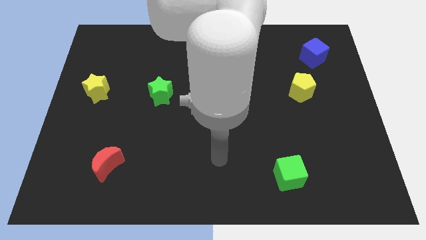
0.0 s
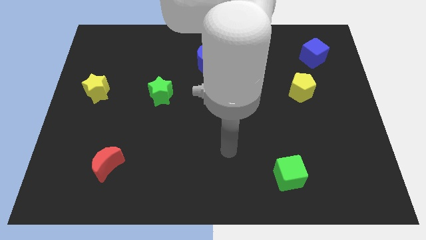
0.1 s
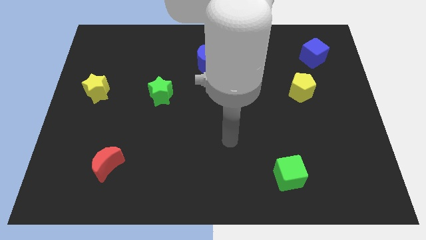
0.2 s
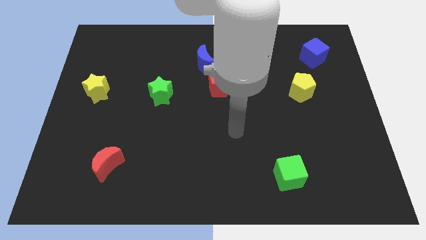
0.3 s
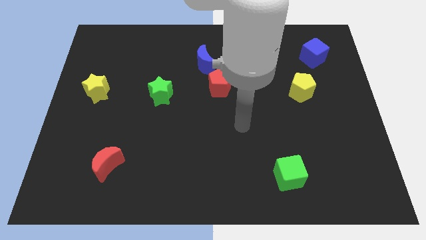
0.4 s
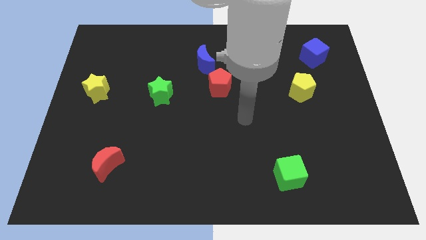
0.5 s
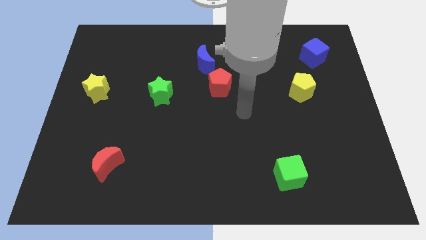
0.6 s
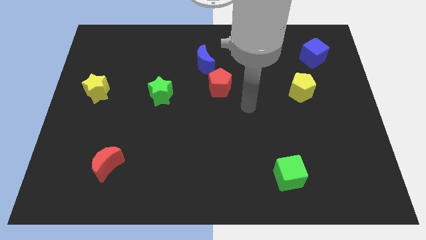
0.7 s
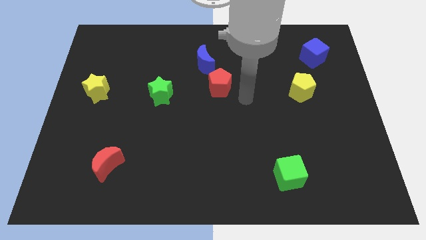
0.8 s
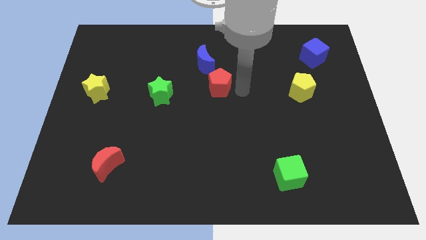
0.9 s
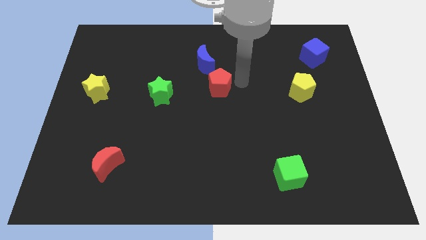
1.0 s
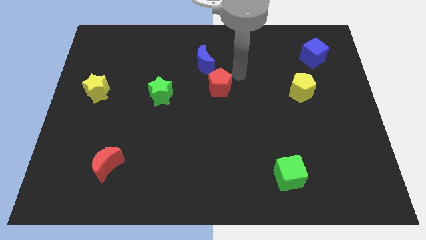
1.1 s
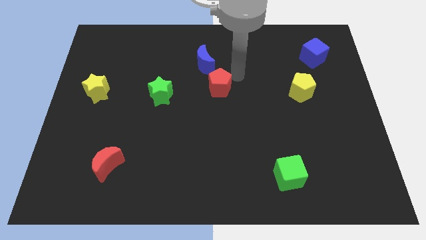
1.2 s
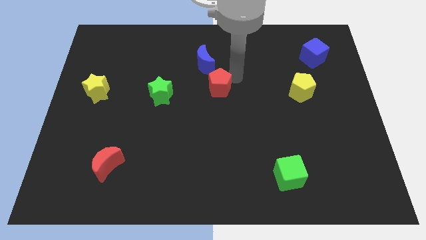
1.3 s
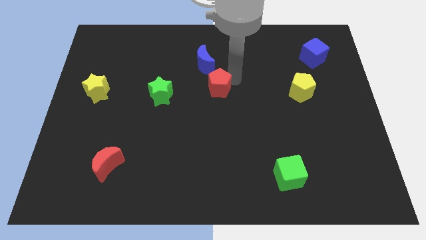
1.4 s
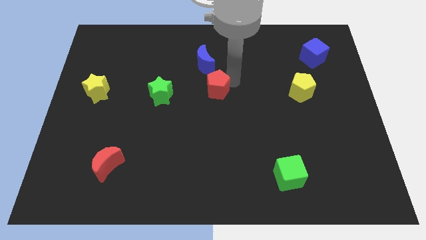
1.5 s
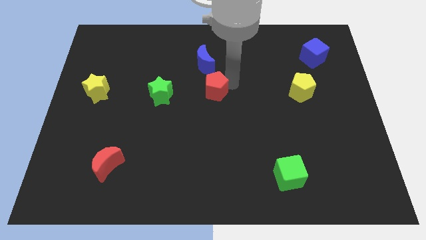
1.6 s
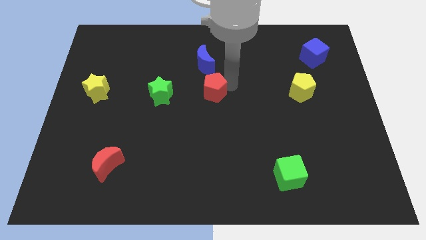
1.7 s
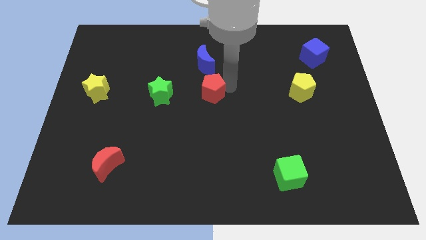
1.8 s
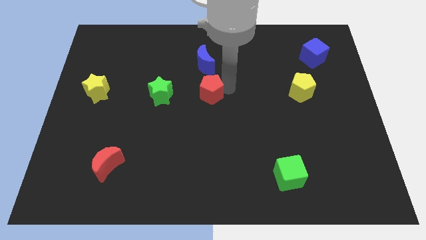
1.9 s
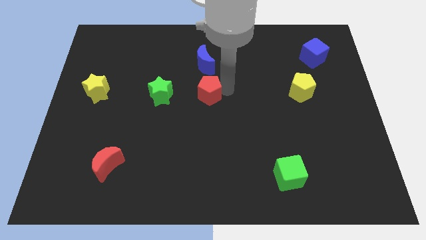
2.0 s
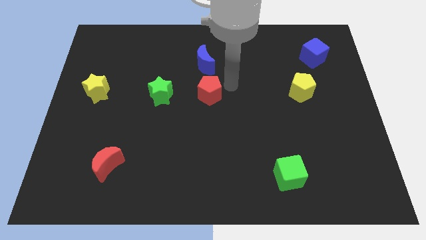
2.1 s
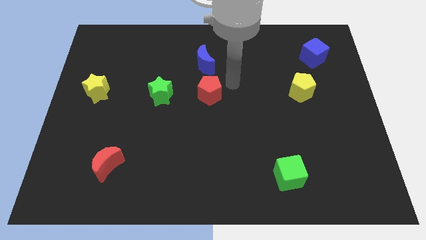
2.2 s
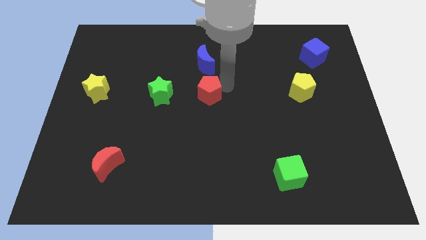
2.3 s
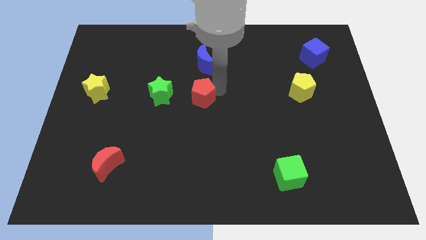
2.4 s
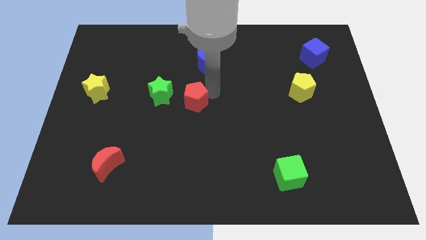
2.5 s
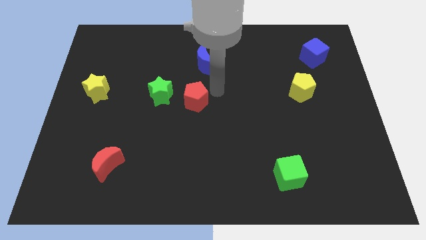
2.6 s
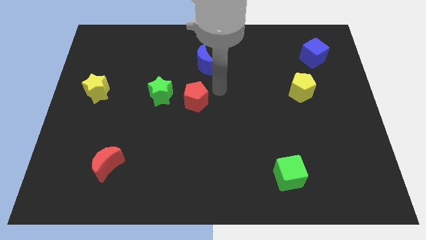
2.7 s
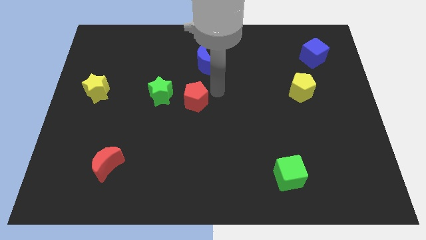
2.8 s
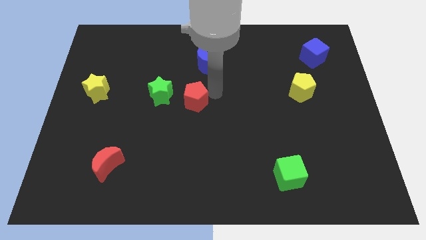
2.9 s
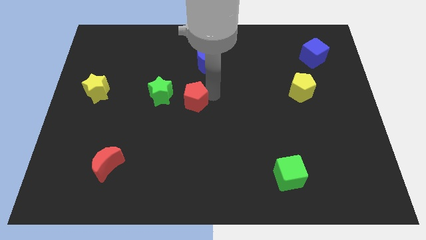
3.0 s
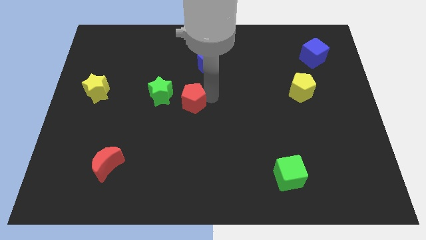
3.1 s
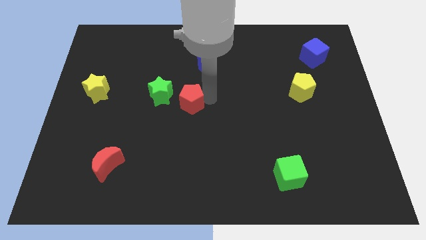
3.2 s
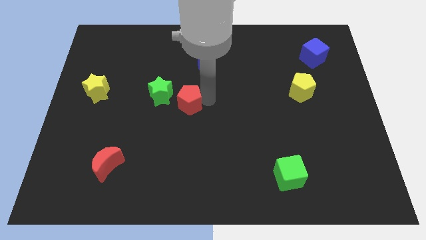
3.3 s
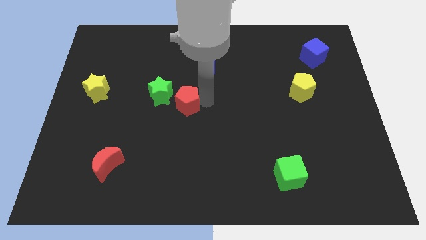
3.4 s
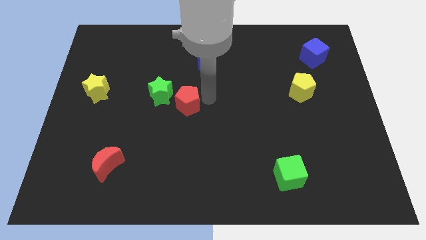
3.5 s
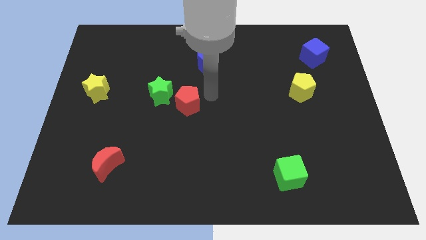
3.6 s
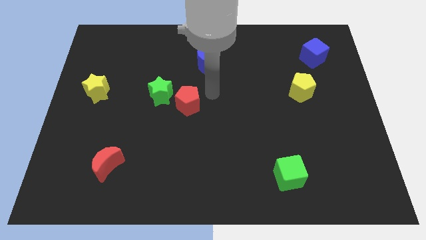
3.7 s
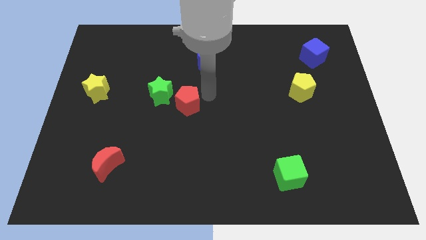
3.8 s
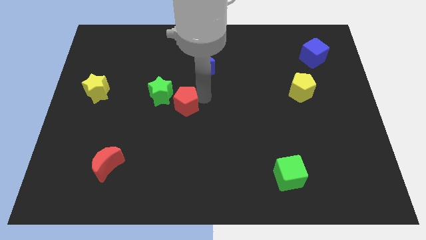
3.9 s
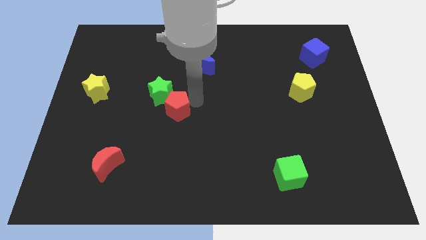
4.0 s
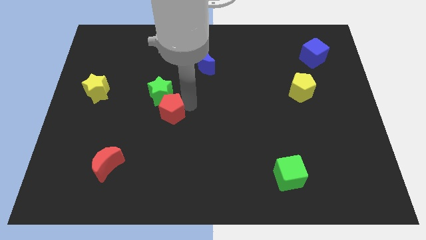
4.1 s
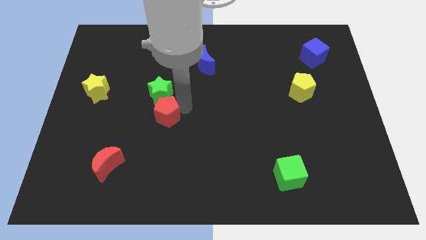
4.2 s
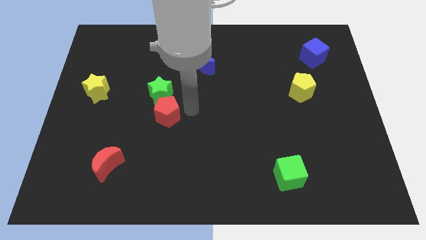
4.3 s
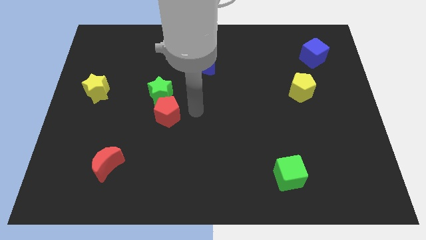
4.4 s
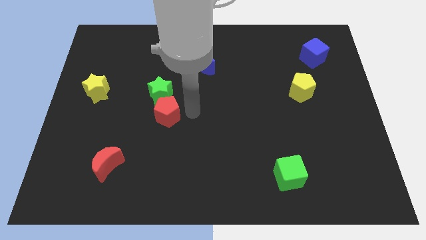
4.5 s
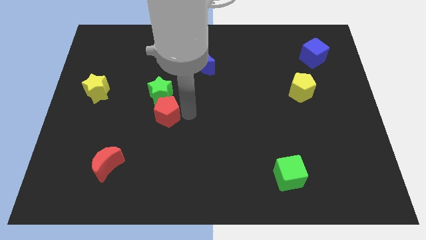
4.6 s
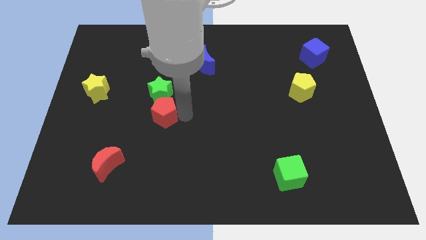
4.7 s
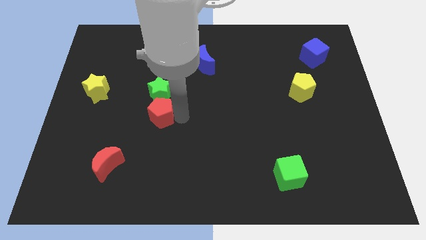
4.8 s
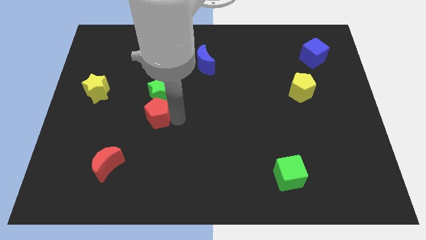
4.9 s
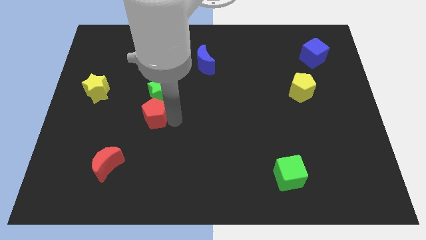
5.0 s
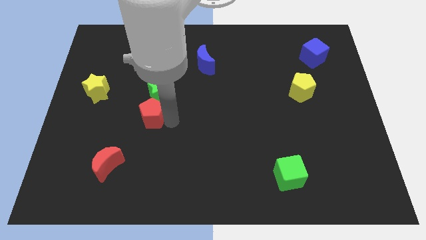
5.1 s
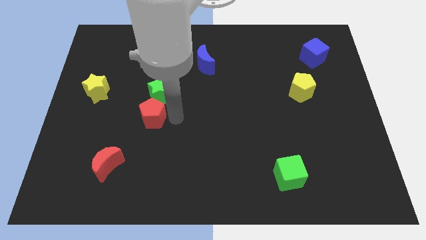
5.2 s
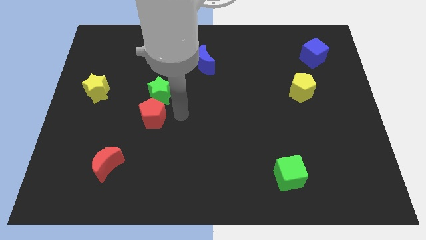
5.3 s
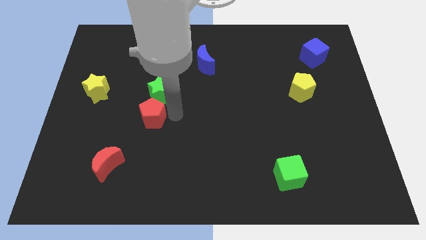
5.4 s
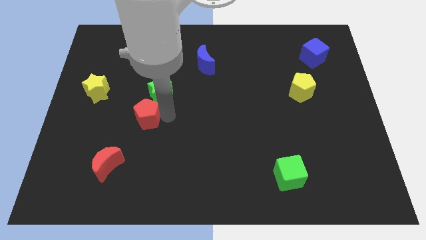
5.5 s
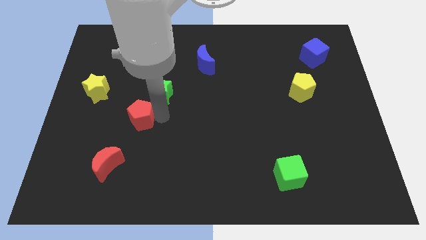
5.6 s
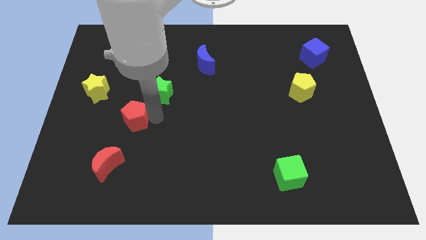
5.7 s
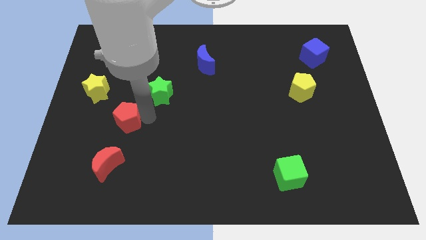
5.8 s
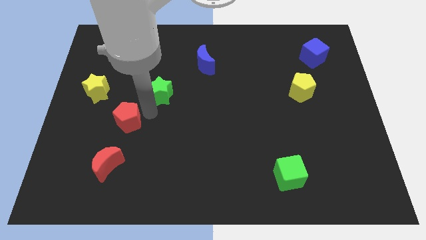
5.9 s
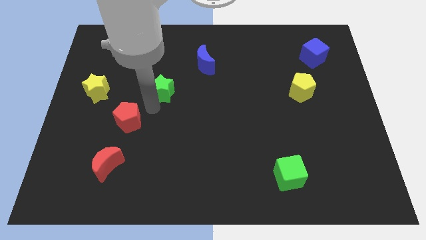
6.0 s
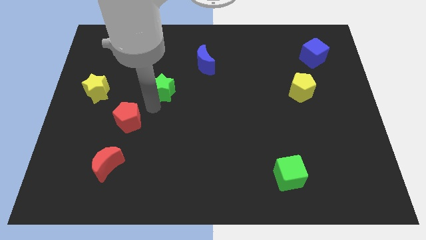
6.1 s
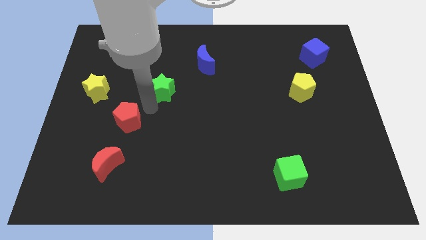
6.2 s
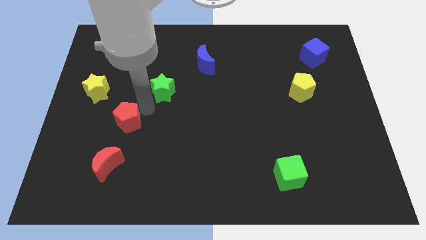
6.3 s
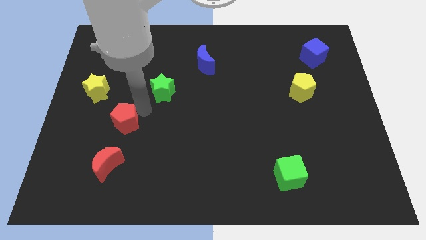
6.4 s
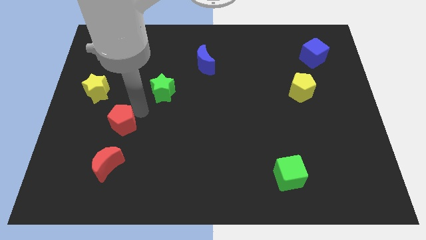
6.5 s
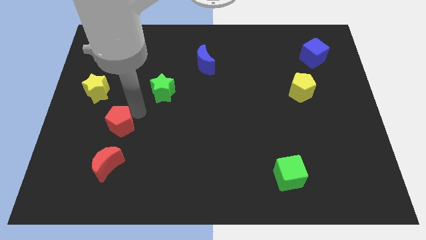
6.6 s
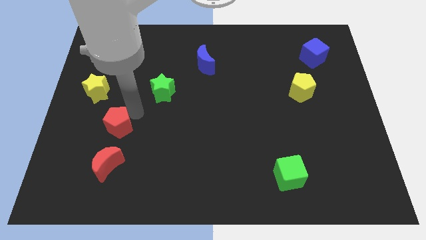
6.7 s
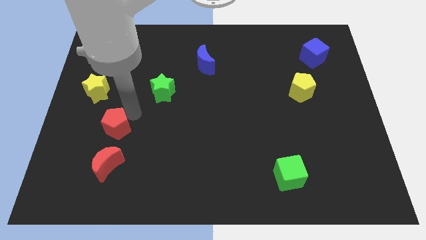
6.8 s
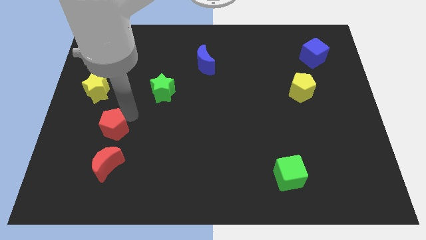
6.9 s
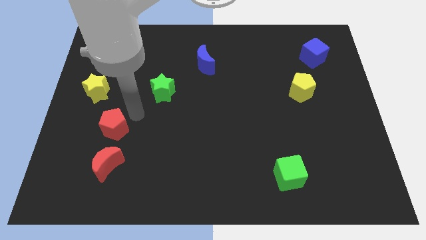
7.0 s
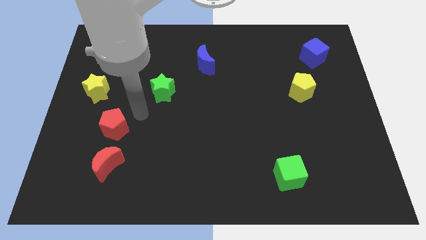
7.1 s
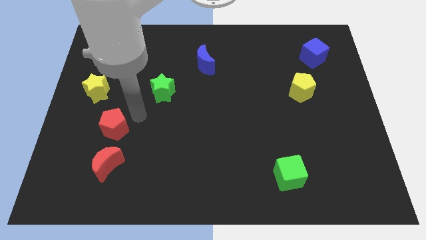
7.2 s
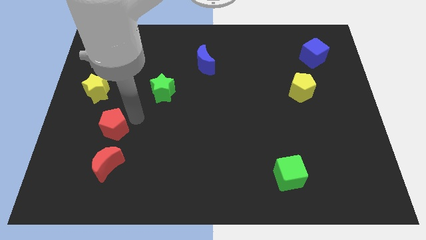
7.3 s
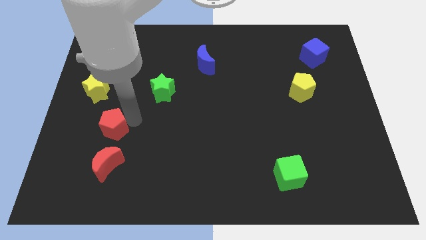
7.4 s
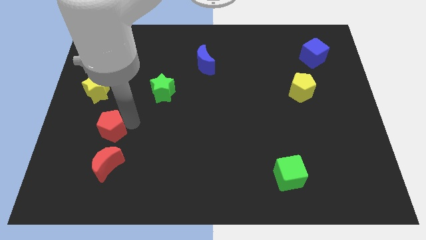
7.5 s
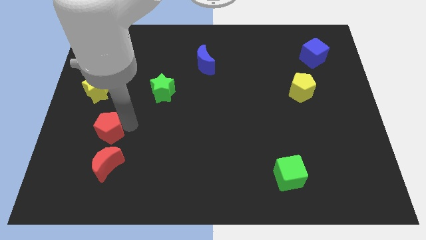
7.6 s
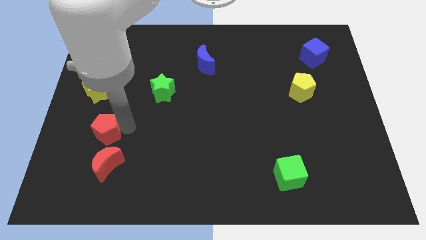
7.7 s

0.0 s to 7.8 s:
put the red pentagon diagonally up and to the left of the red moon

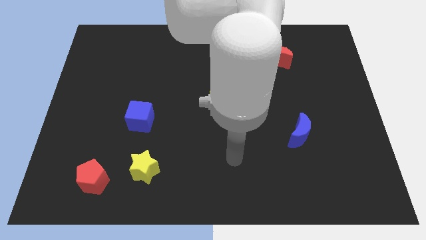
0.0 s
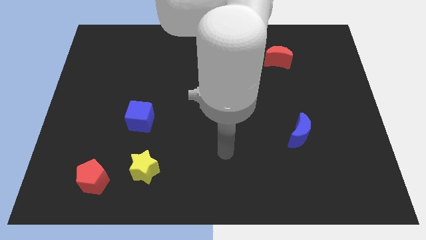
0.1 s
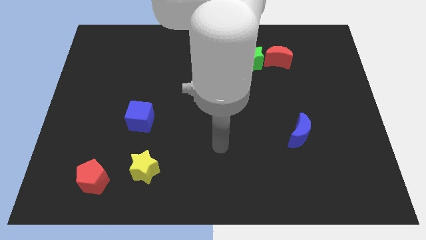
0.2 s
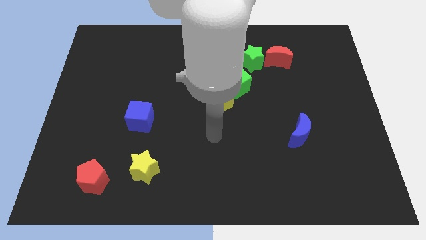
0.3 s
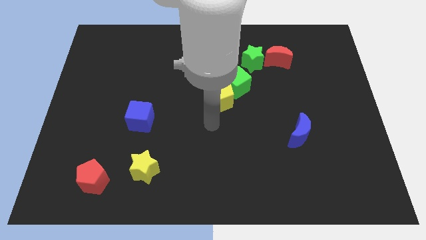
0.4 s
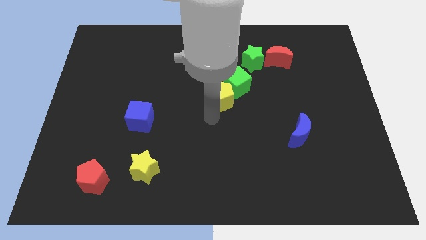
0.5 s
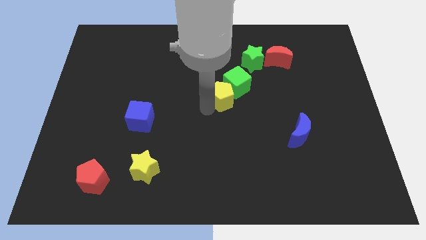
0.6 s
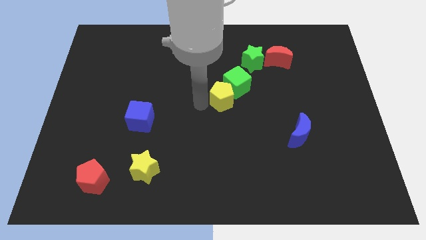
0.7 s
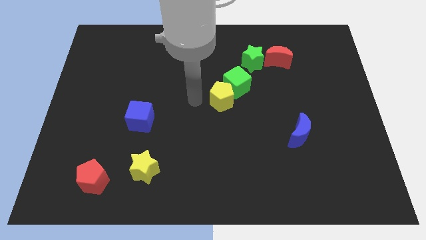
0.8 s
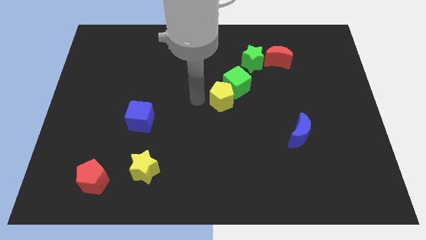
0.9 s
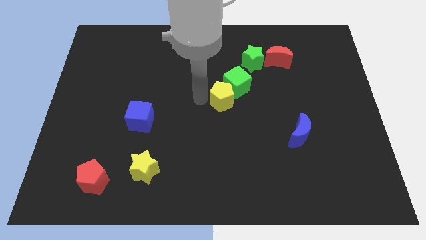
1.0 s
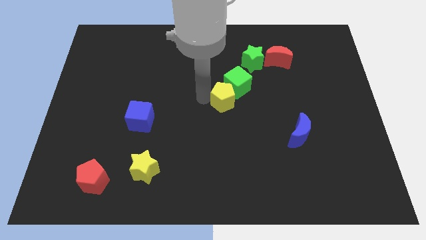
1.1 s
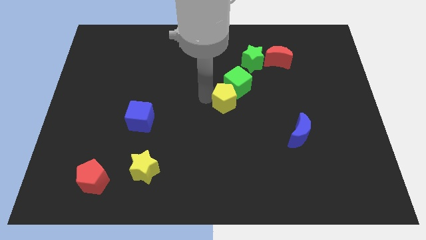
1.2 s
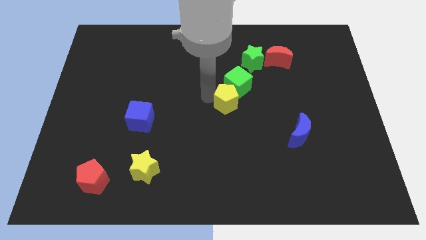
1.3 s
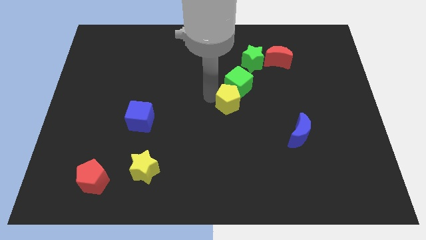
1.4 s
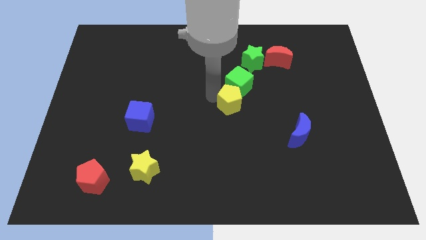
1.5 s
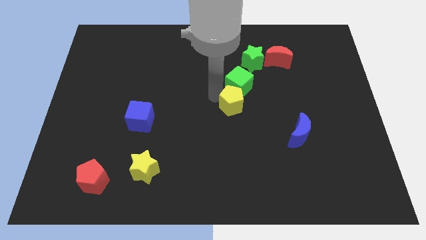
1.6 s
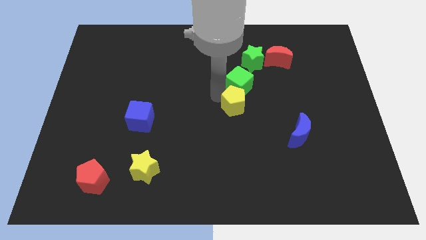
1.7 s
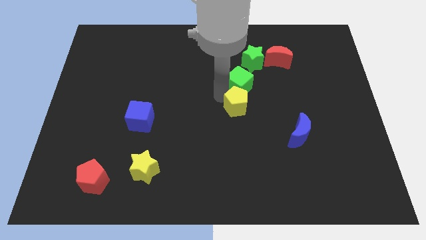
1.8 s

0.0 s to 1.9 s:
move the yellow pentagon diagonally down and to the right of the green cube
